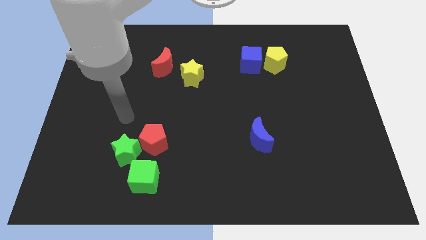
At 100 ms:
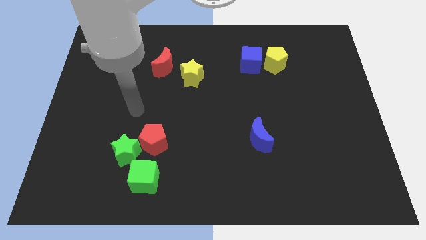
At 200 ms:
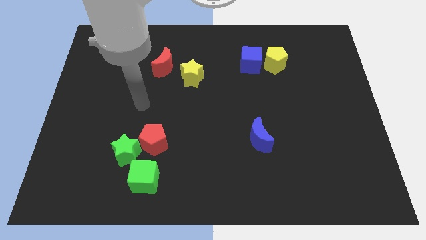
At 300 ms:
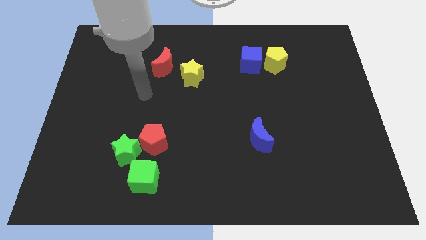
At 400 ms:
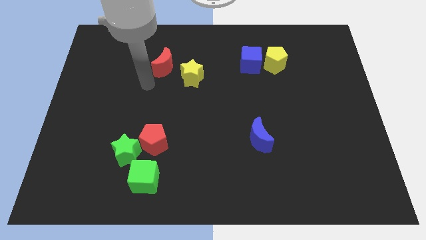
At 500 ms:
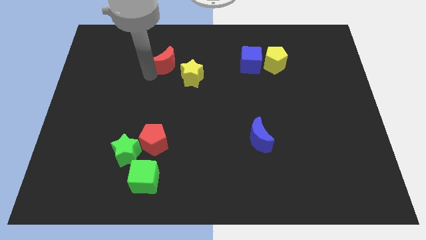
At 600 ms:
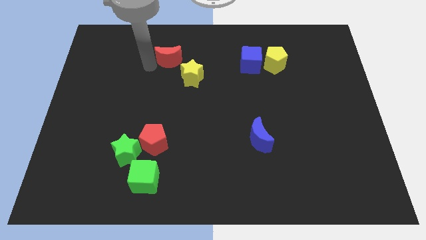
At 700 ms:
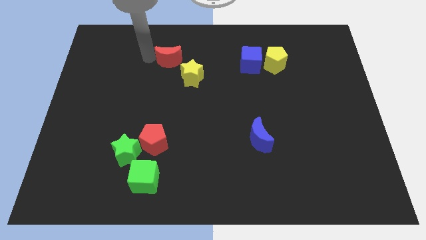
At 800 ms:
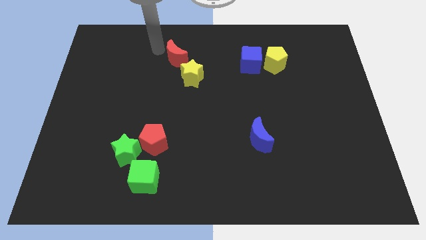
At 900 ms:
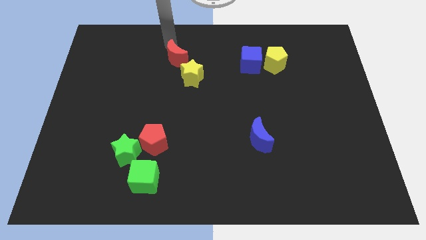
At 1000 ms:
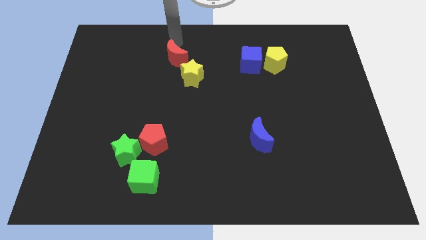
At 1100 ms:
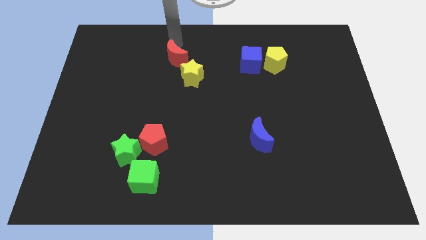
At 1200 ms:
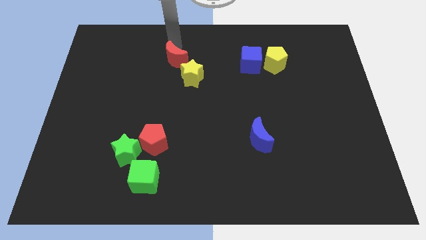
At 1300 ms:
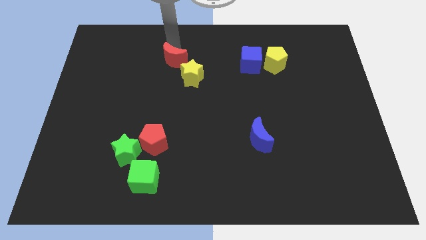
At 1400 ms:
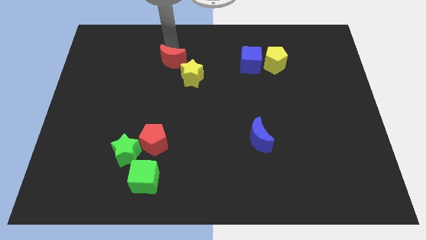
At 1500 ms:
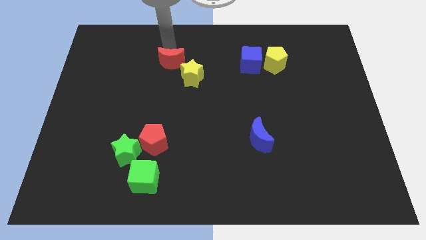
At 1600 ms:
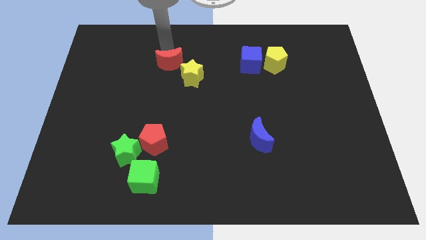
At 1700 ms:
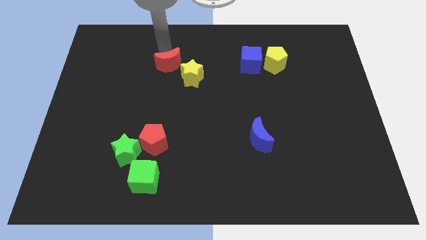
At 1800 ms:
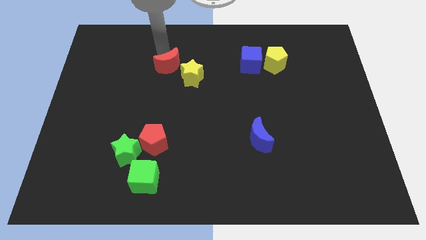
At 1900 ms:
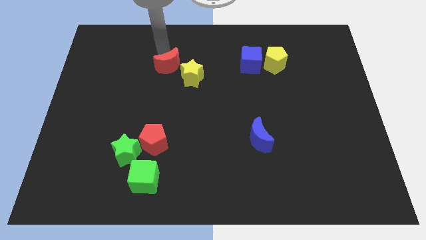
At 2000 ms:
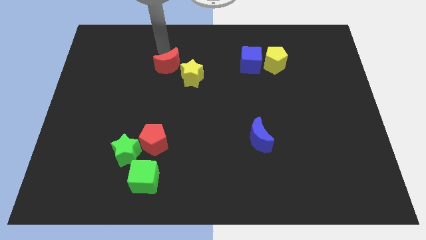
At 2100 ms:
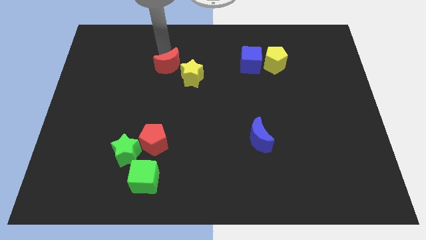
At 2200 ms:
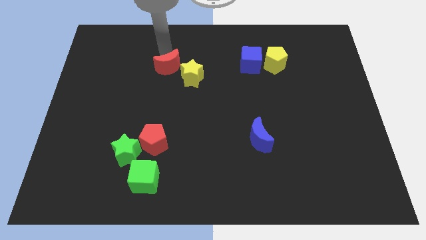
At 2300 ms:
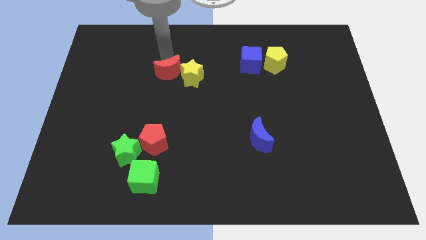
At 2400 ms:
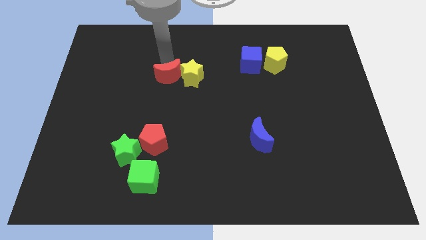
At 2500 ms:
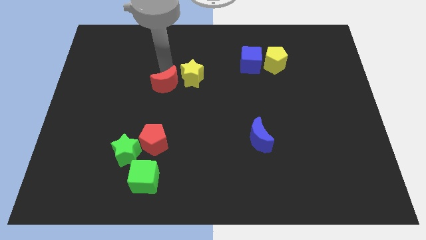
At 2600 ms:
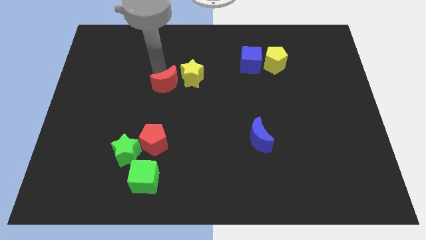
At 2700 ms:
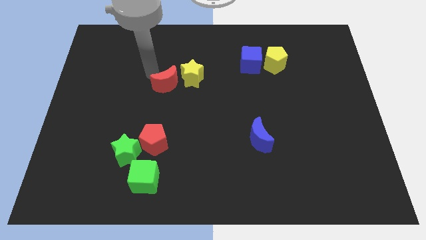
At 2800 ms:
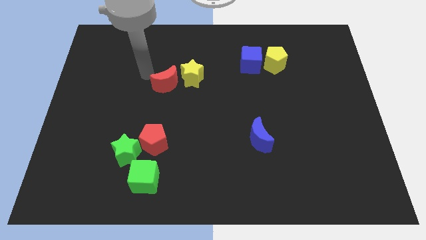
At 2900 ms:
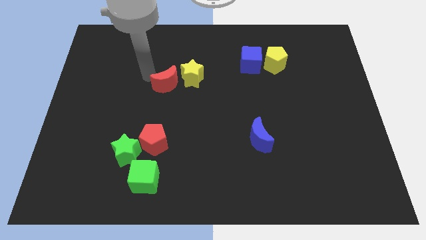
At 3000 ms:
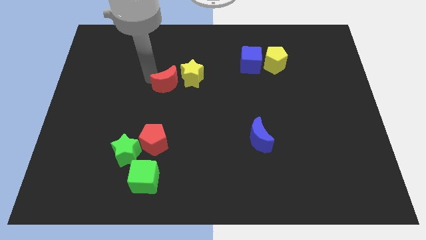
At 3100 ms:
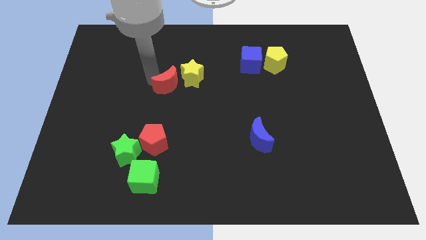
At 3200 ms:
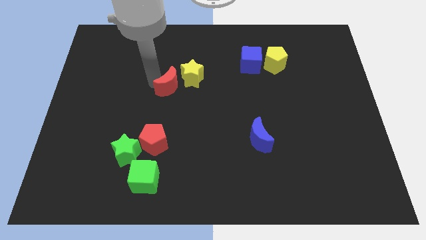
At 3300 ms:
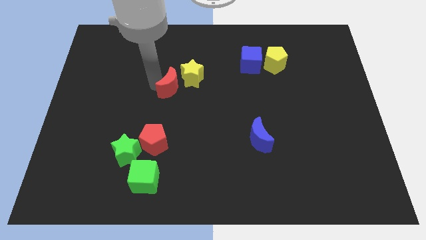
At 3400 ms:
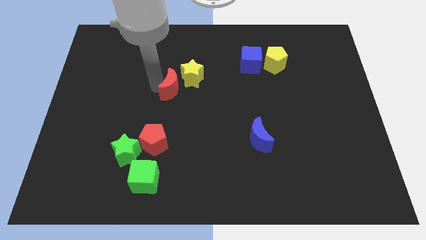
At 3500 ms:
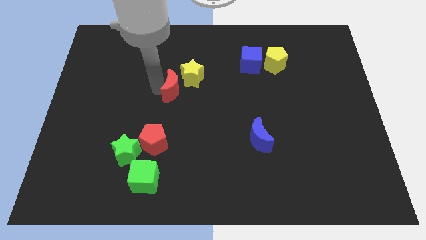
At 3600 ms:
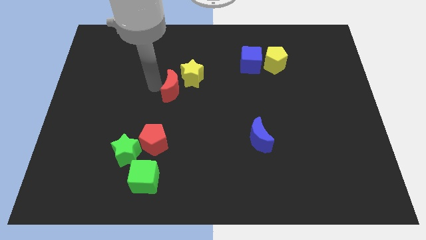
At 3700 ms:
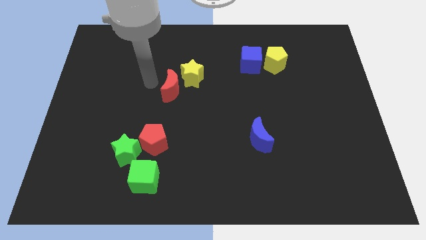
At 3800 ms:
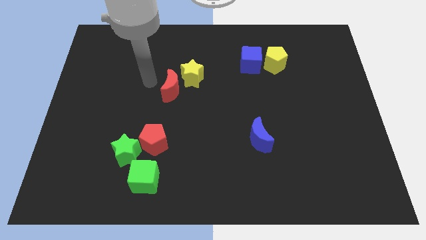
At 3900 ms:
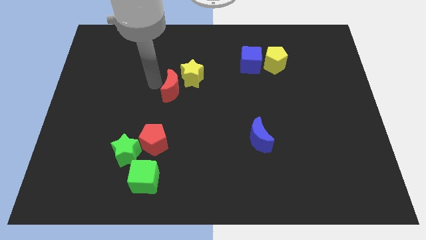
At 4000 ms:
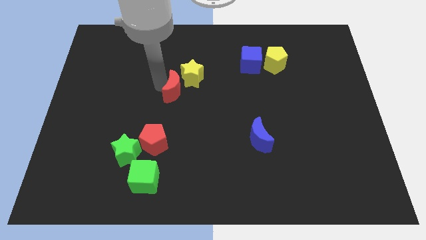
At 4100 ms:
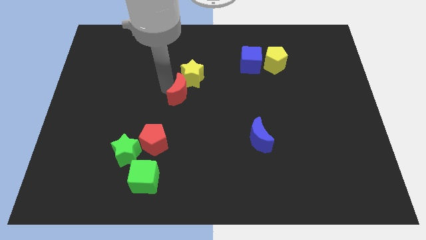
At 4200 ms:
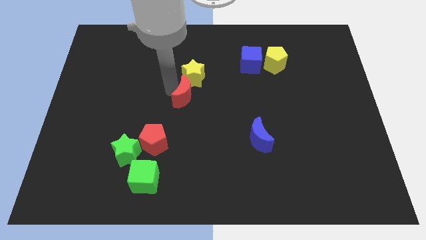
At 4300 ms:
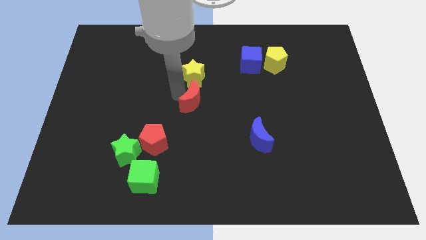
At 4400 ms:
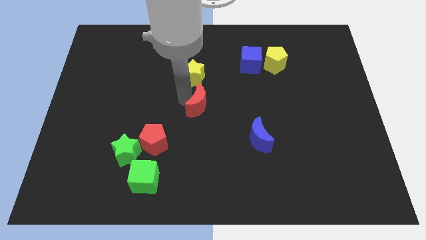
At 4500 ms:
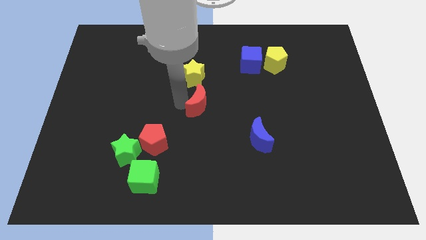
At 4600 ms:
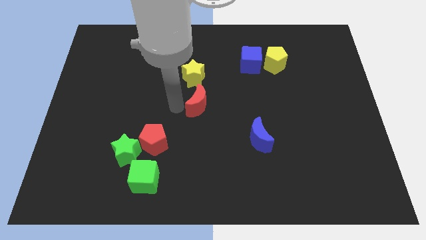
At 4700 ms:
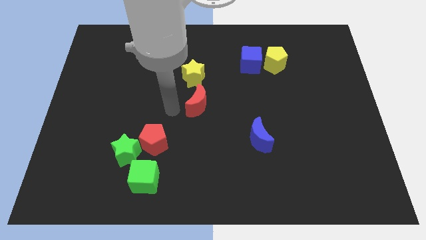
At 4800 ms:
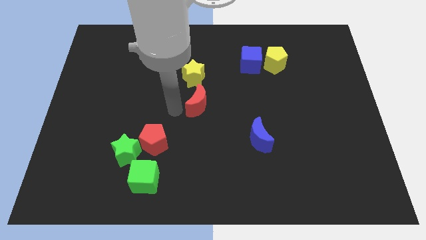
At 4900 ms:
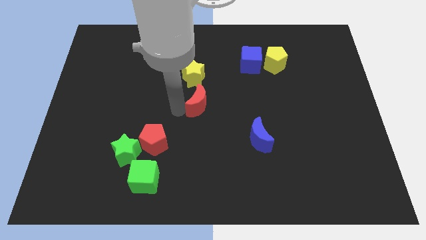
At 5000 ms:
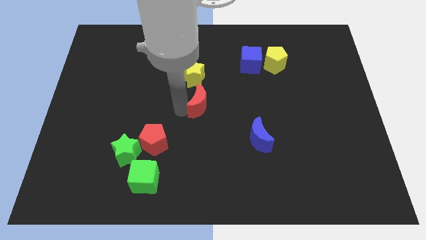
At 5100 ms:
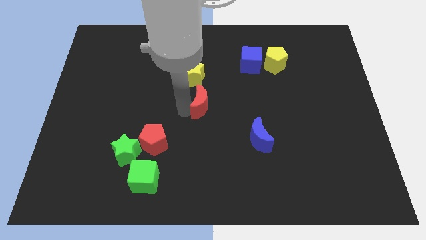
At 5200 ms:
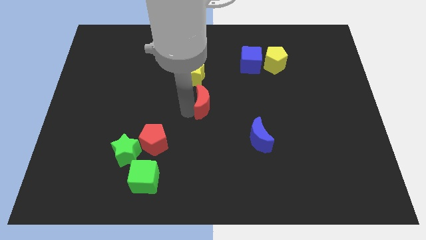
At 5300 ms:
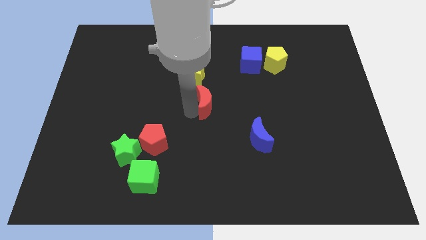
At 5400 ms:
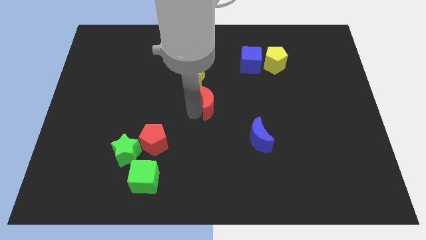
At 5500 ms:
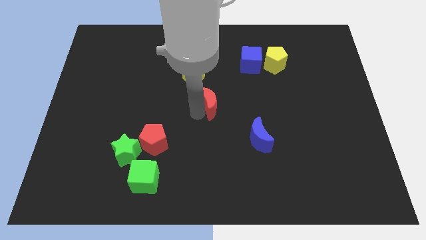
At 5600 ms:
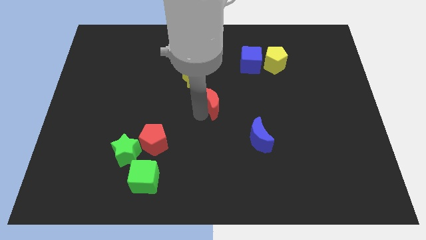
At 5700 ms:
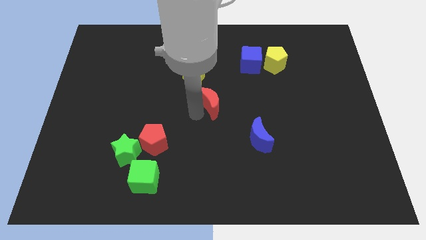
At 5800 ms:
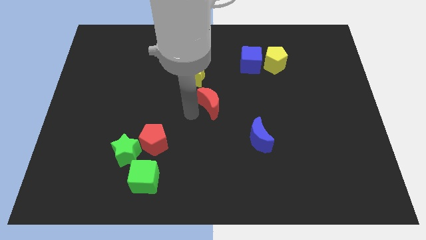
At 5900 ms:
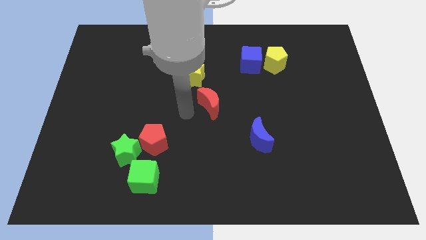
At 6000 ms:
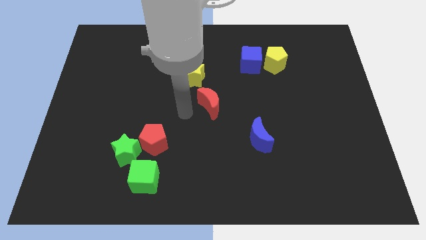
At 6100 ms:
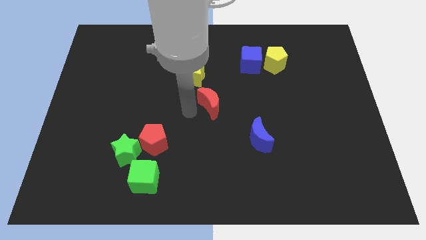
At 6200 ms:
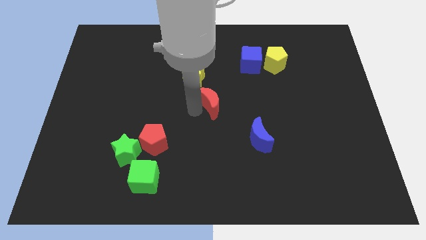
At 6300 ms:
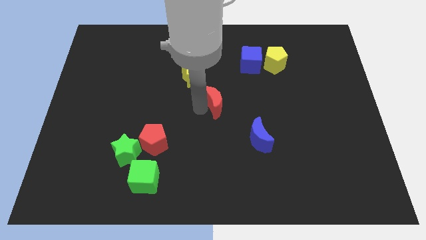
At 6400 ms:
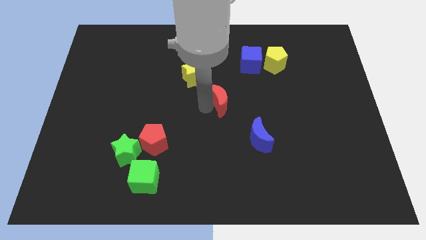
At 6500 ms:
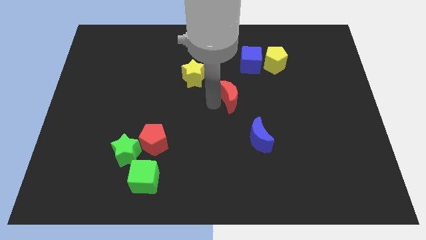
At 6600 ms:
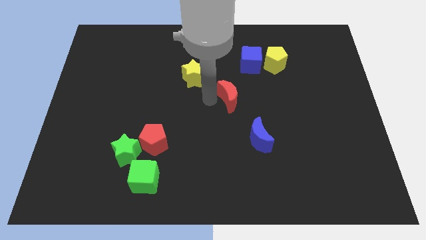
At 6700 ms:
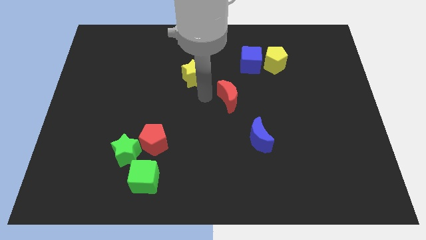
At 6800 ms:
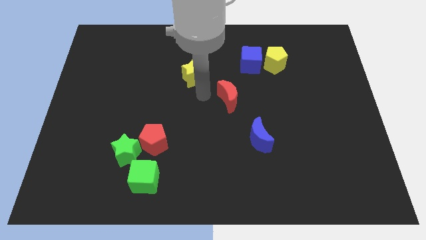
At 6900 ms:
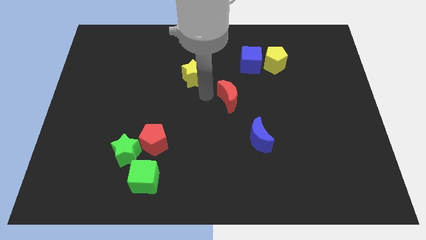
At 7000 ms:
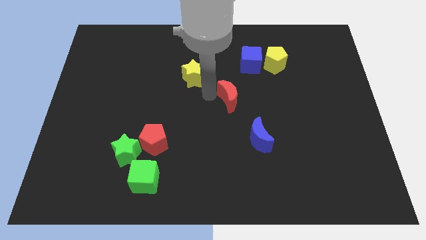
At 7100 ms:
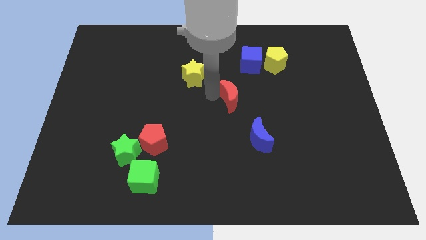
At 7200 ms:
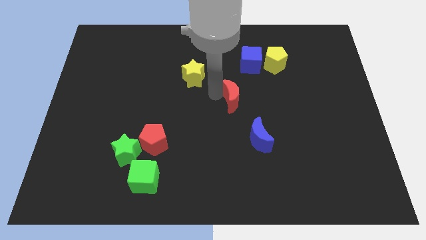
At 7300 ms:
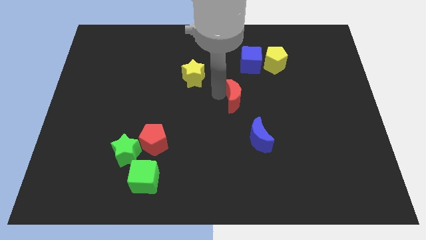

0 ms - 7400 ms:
push the red moon to the top of the blue moon
